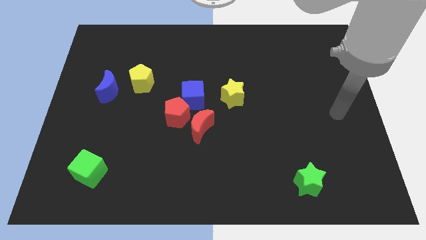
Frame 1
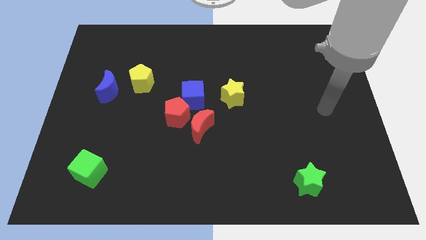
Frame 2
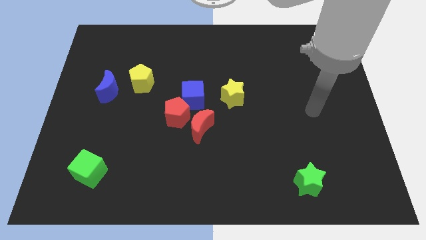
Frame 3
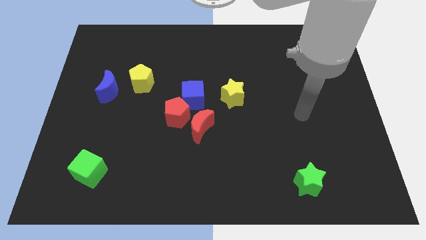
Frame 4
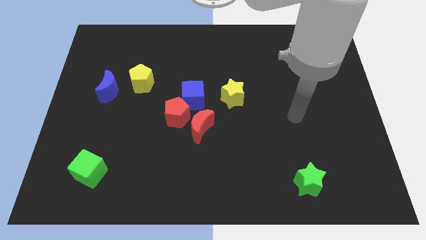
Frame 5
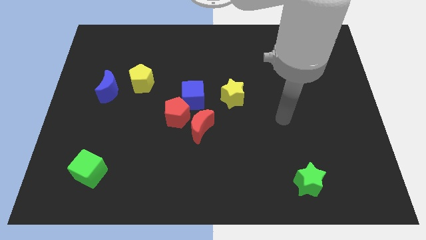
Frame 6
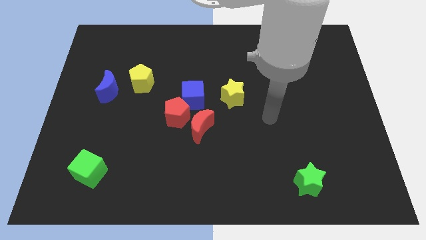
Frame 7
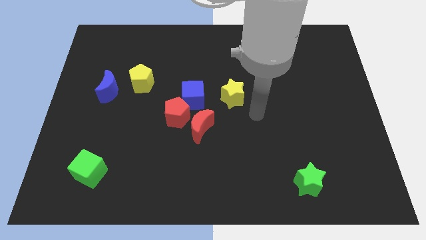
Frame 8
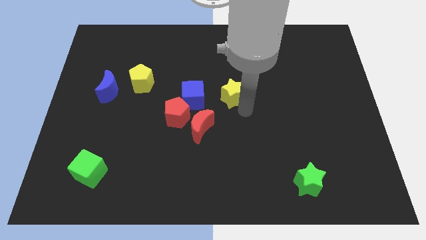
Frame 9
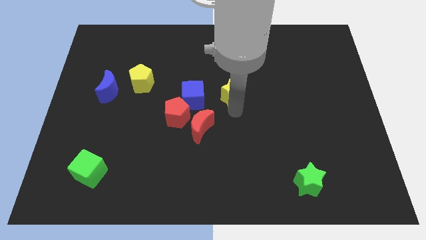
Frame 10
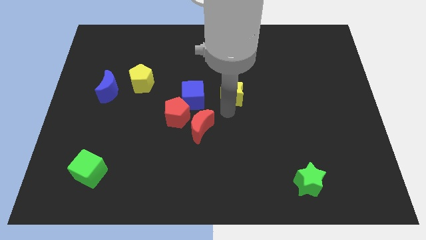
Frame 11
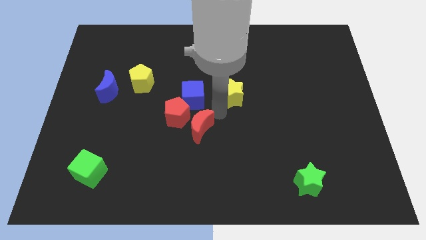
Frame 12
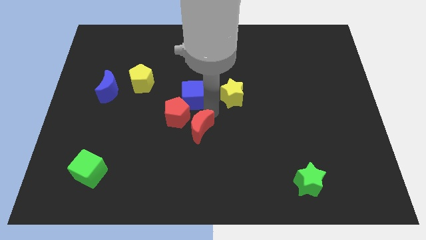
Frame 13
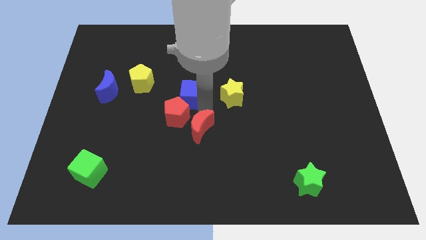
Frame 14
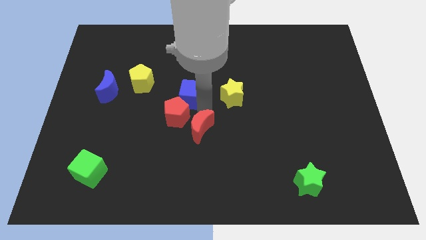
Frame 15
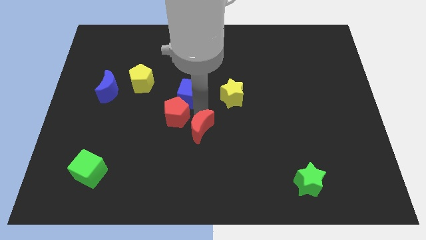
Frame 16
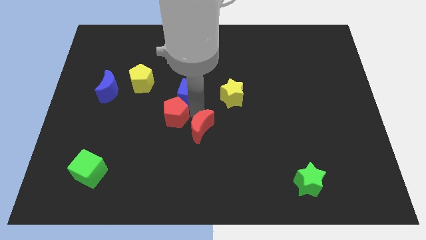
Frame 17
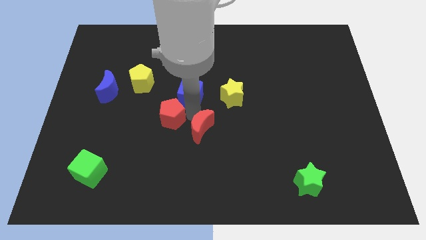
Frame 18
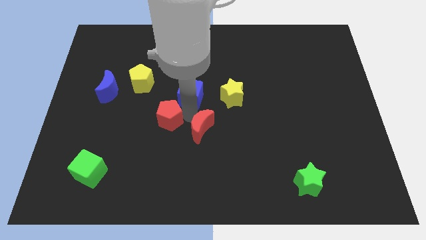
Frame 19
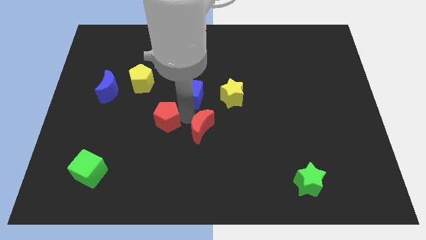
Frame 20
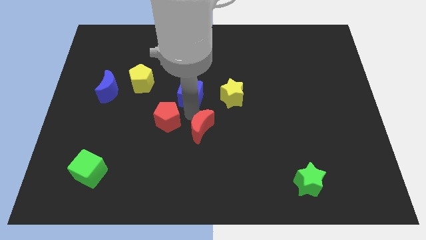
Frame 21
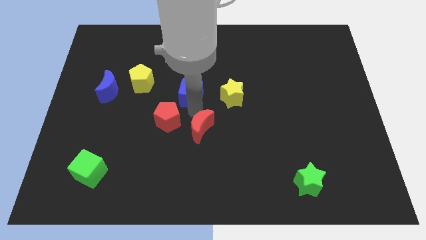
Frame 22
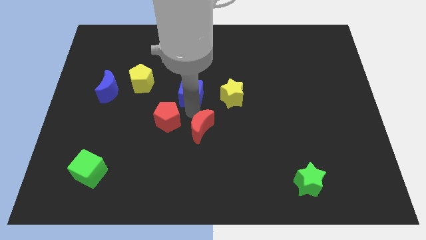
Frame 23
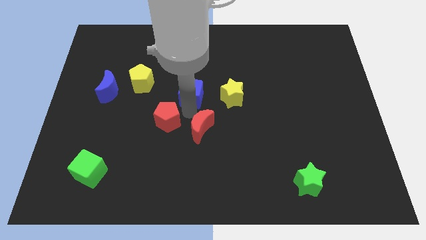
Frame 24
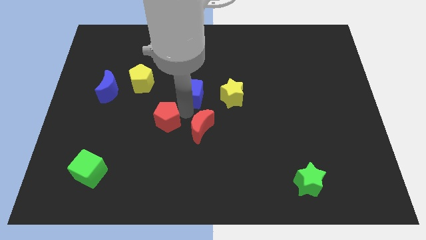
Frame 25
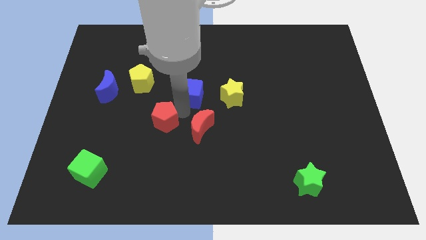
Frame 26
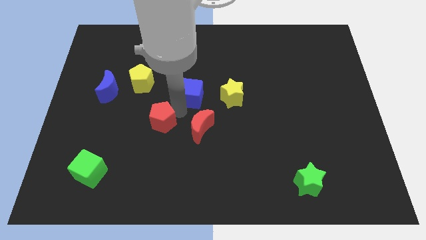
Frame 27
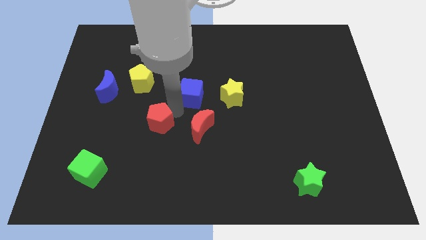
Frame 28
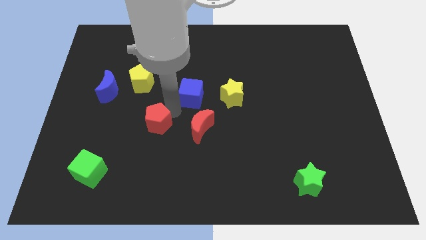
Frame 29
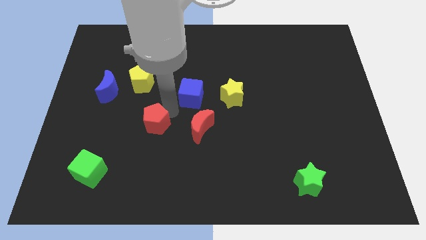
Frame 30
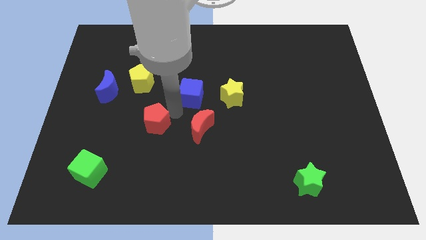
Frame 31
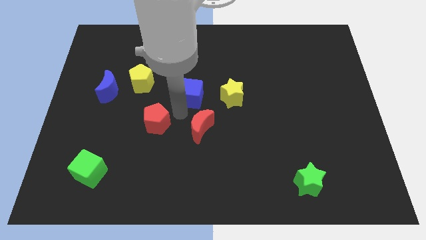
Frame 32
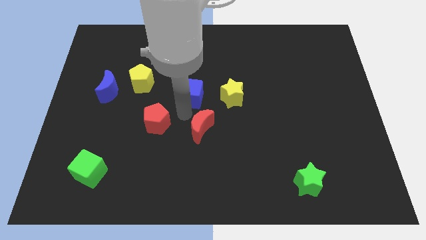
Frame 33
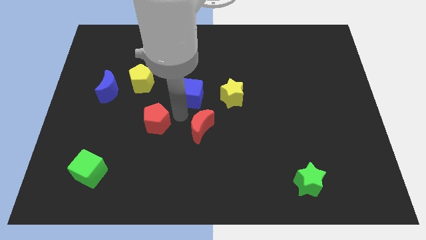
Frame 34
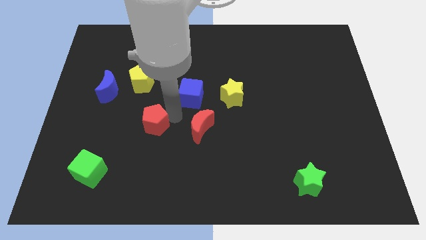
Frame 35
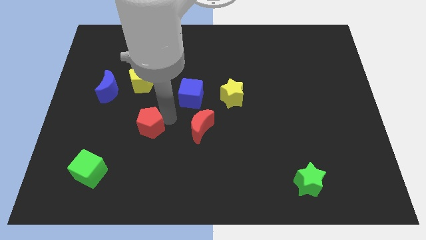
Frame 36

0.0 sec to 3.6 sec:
separate the red pentagon from the blue cube and red moon

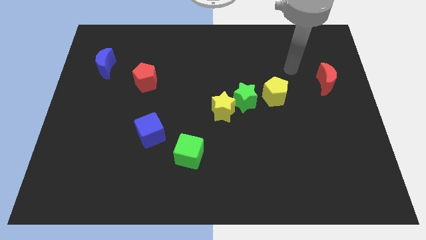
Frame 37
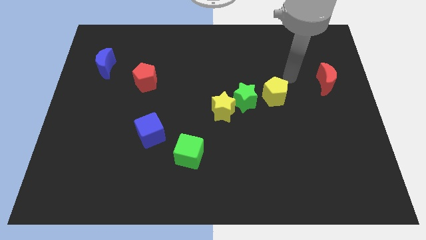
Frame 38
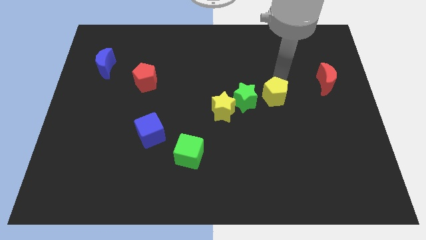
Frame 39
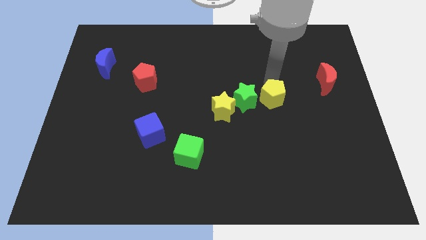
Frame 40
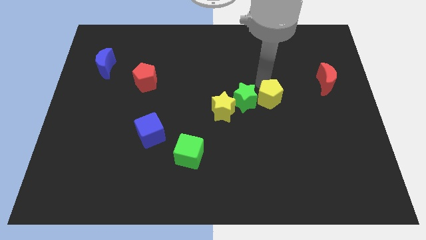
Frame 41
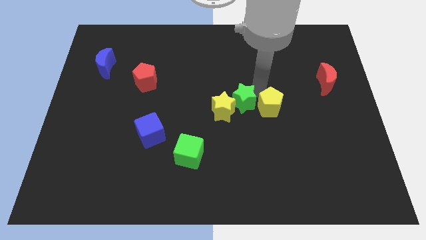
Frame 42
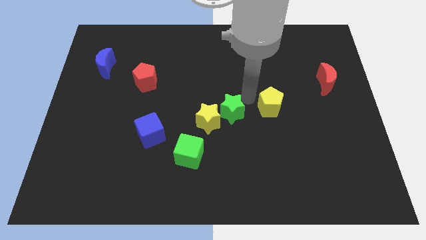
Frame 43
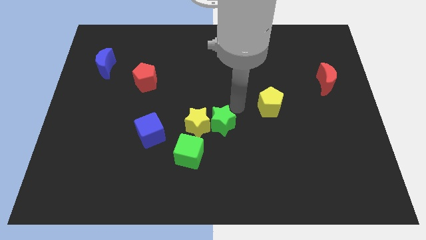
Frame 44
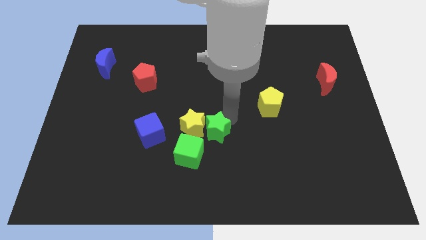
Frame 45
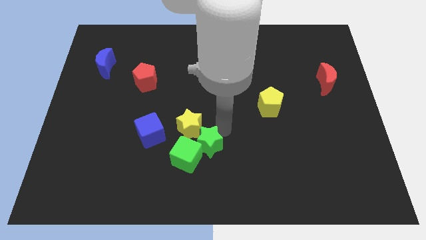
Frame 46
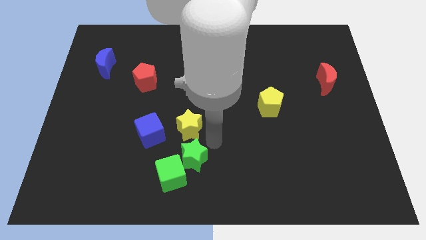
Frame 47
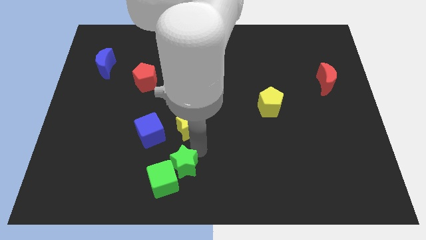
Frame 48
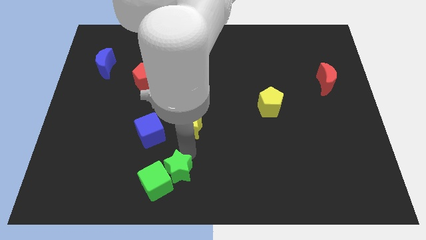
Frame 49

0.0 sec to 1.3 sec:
pull the yellow star apart from the green star

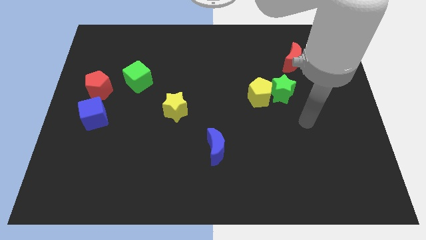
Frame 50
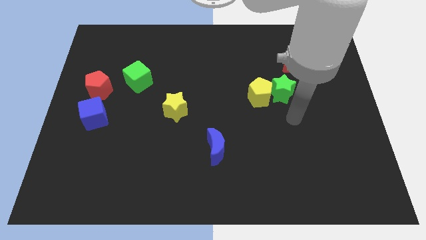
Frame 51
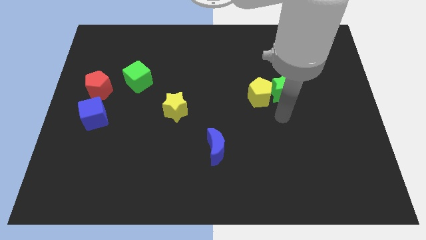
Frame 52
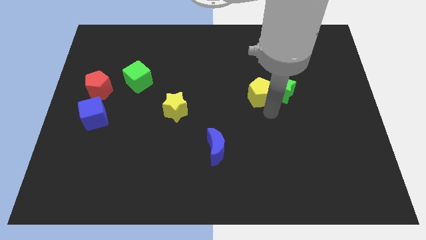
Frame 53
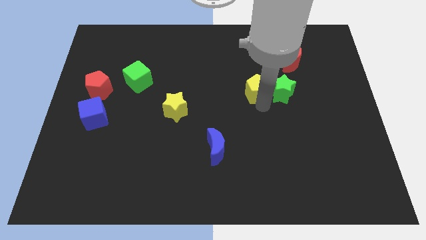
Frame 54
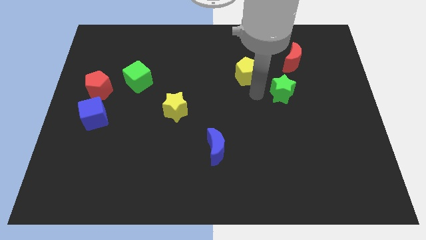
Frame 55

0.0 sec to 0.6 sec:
separate the green star from the yellow pentagon

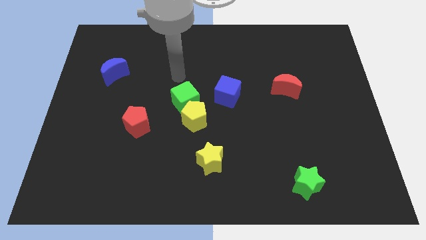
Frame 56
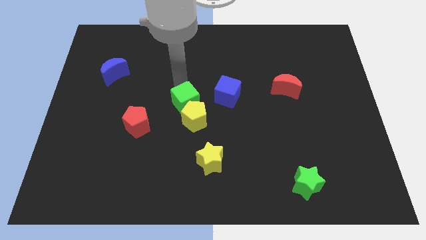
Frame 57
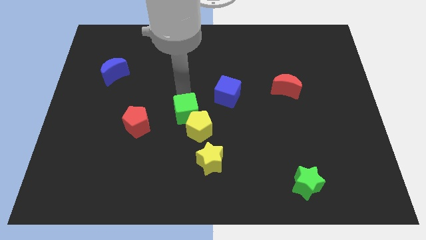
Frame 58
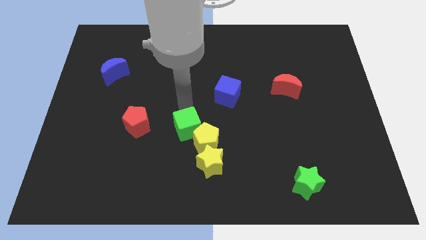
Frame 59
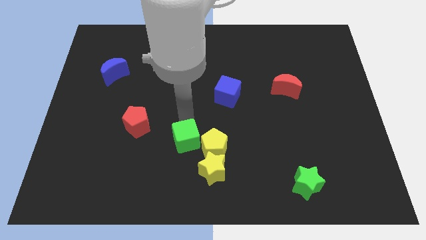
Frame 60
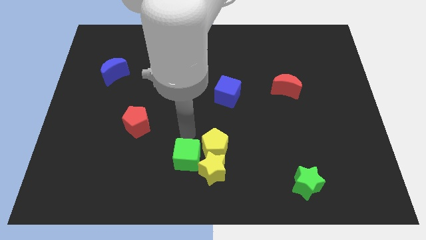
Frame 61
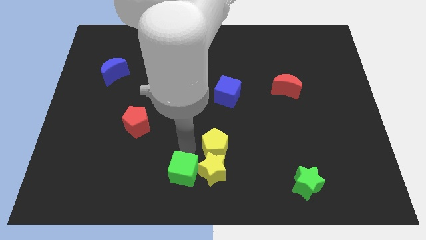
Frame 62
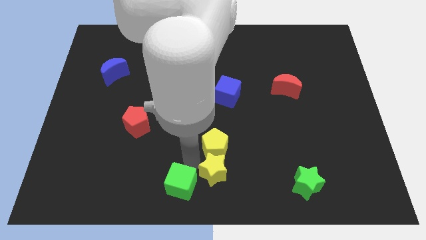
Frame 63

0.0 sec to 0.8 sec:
separate the yellow pentagon from the green cube

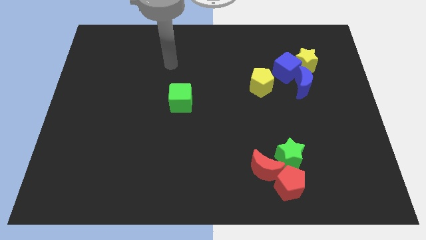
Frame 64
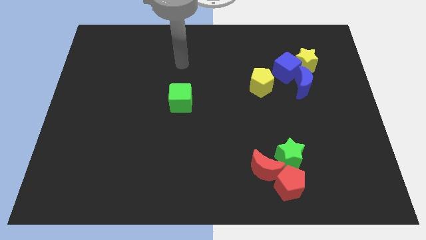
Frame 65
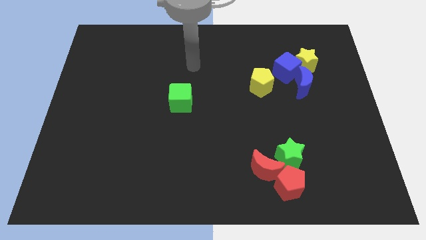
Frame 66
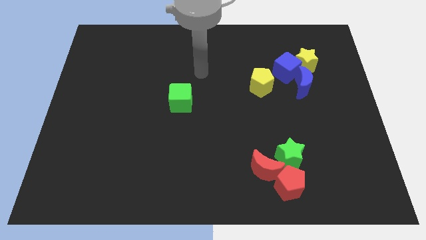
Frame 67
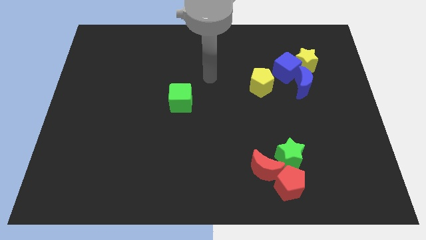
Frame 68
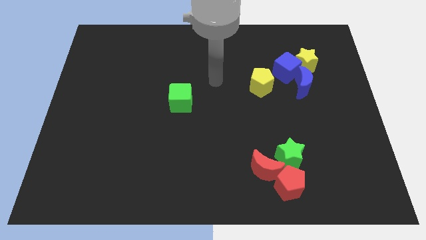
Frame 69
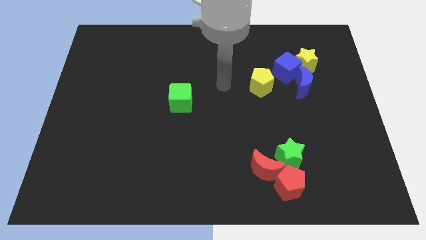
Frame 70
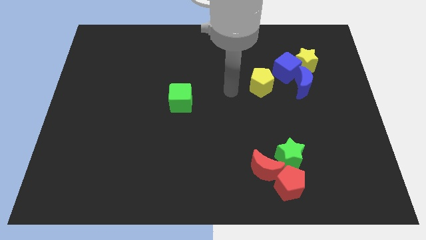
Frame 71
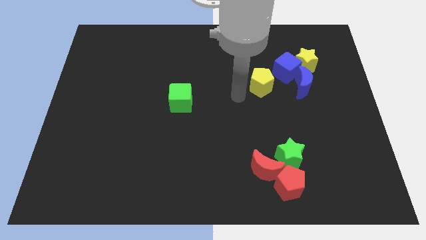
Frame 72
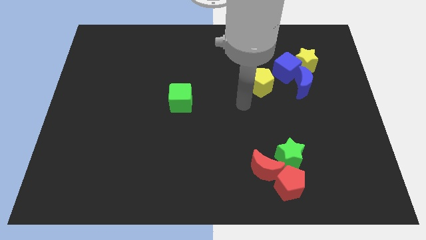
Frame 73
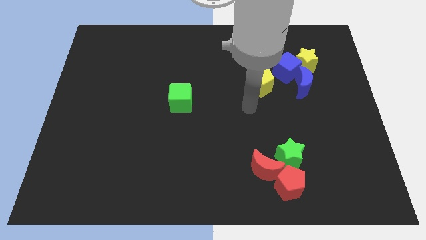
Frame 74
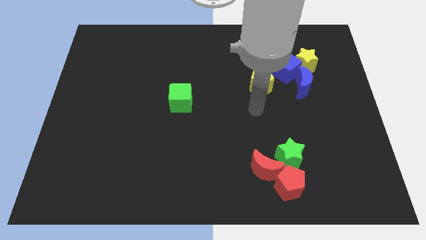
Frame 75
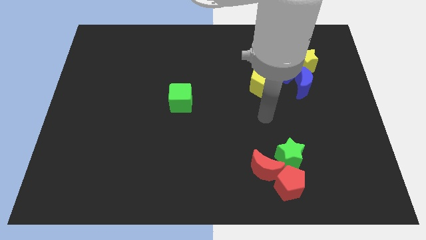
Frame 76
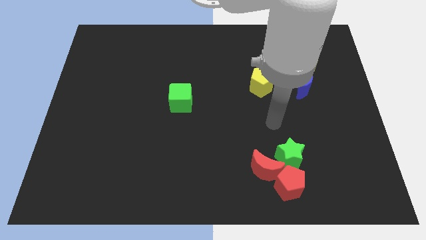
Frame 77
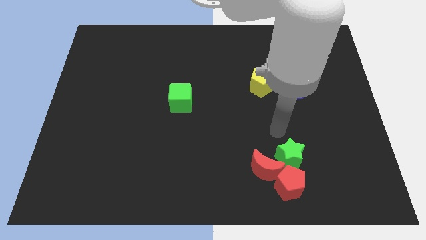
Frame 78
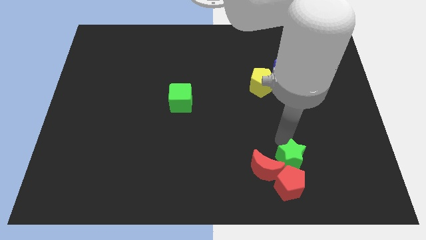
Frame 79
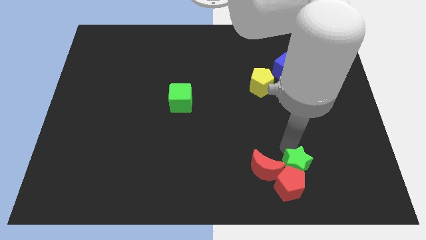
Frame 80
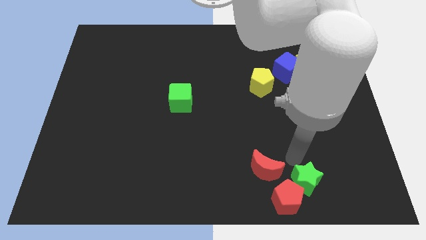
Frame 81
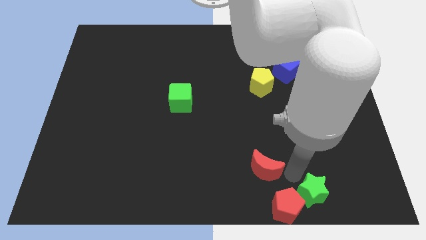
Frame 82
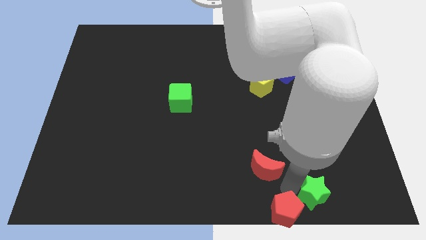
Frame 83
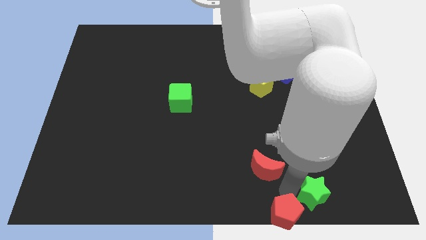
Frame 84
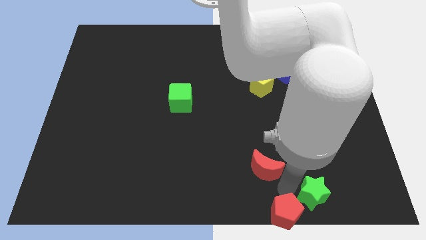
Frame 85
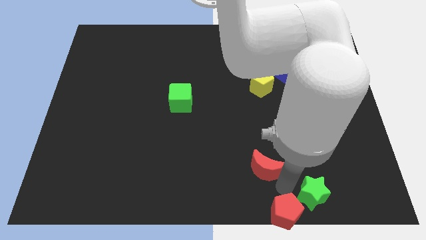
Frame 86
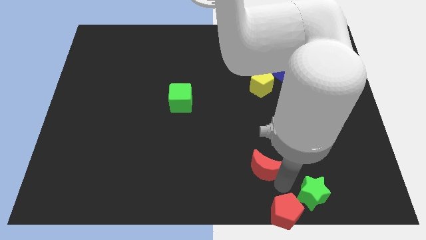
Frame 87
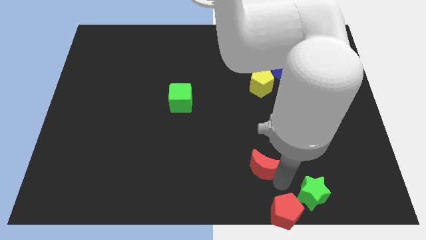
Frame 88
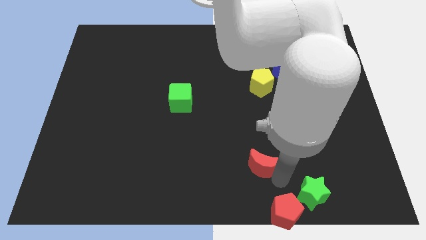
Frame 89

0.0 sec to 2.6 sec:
separate the red moon from the red pentagon and green star

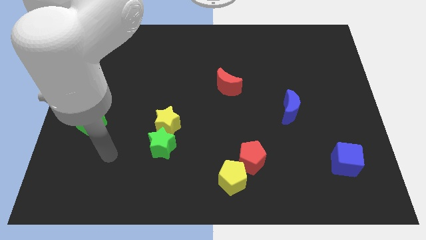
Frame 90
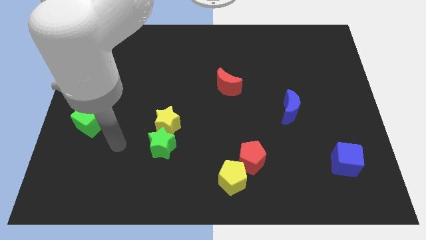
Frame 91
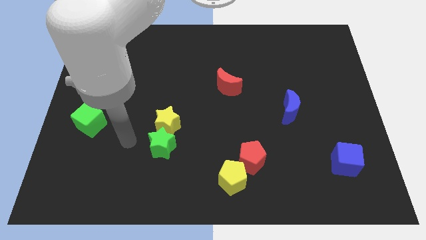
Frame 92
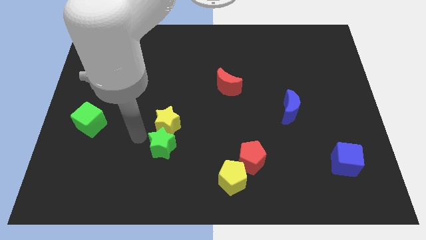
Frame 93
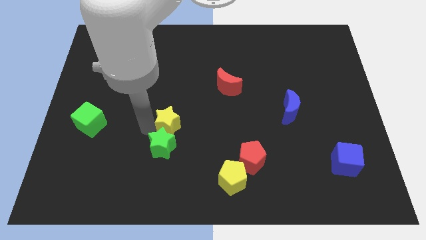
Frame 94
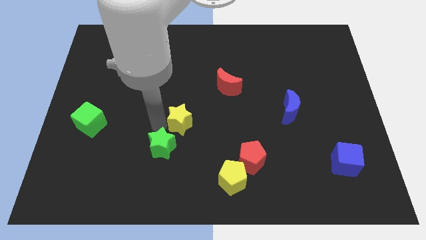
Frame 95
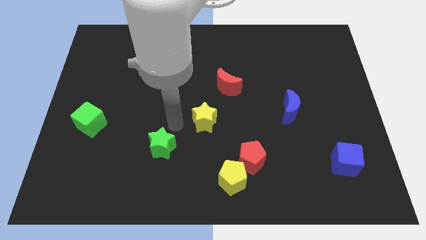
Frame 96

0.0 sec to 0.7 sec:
move the green star away from the yellow star
